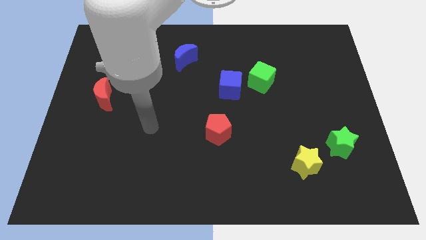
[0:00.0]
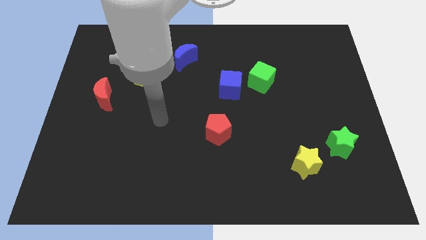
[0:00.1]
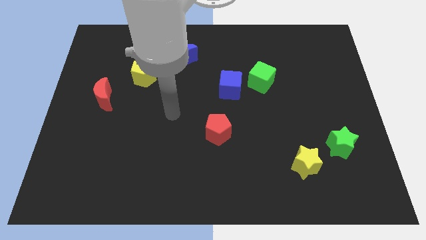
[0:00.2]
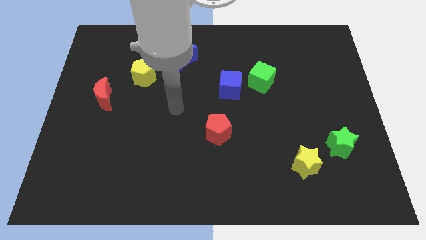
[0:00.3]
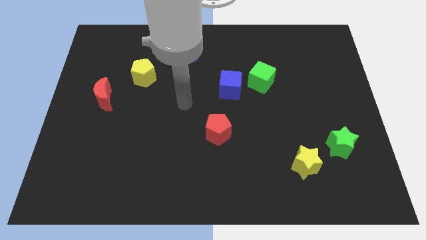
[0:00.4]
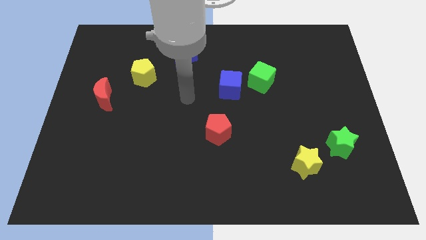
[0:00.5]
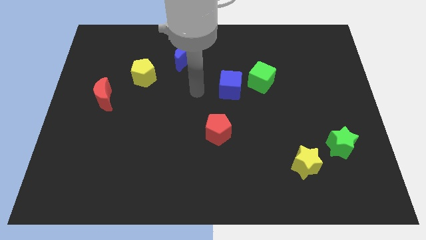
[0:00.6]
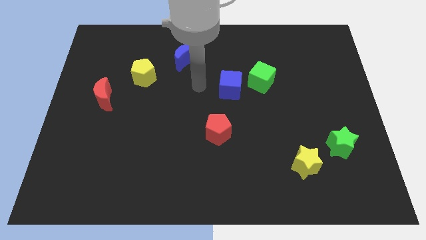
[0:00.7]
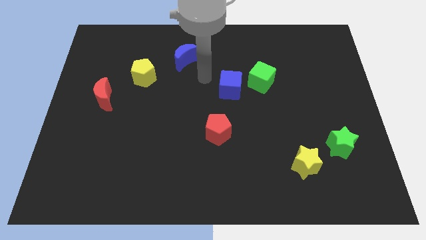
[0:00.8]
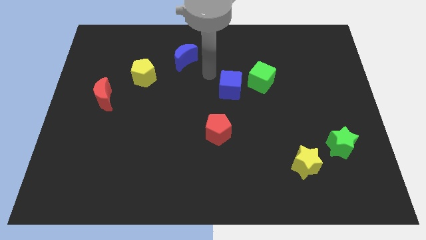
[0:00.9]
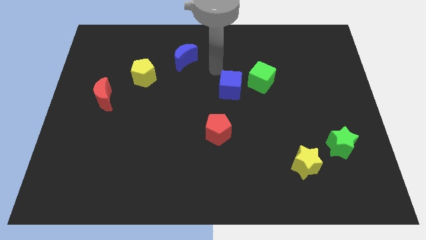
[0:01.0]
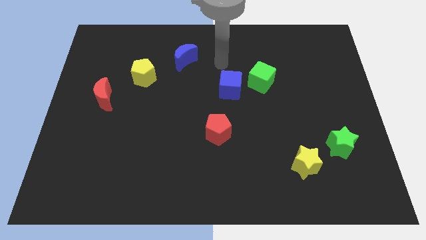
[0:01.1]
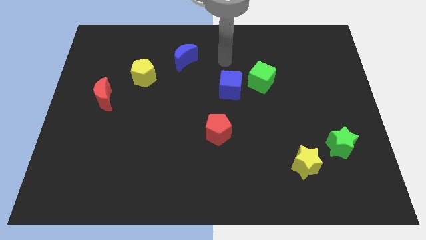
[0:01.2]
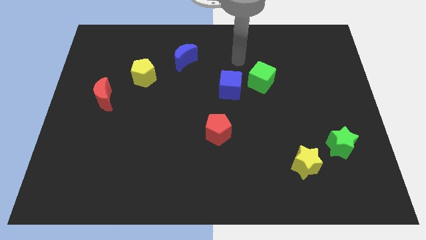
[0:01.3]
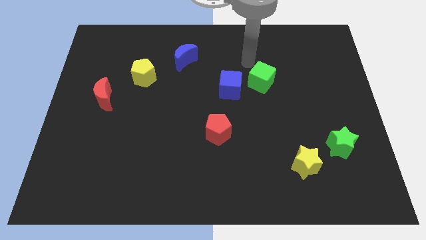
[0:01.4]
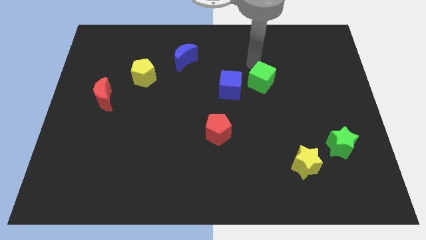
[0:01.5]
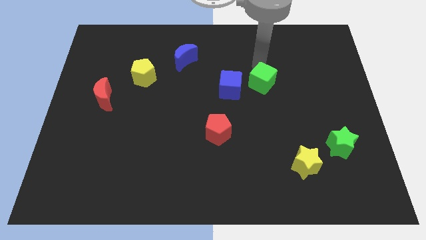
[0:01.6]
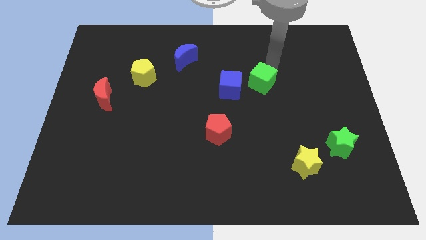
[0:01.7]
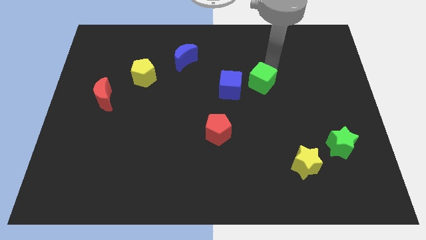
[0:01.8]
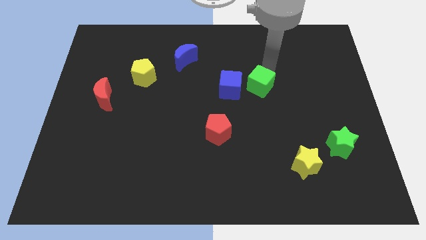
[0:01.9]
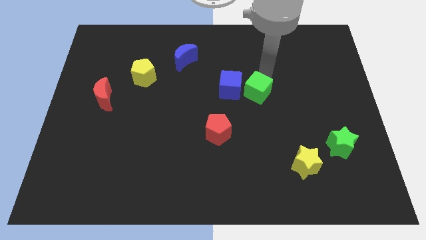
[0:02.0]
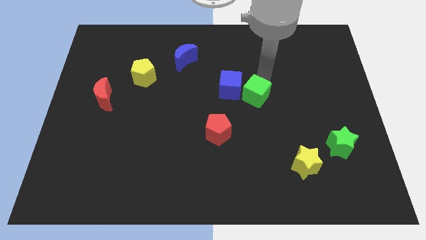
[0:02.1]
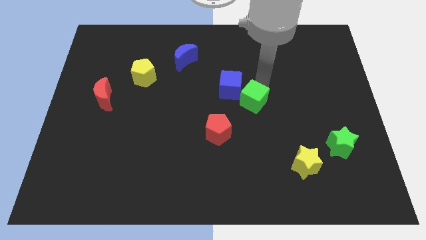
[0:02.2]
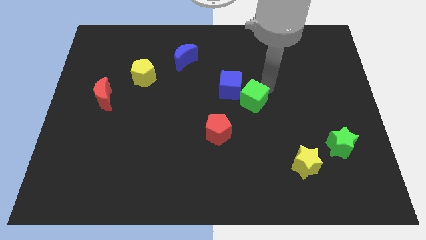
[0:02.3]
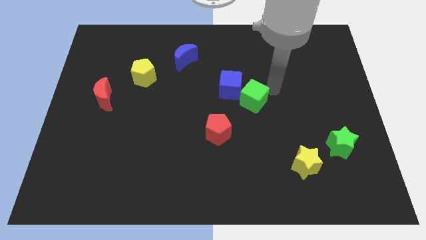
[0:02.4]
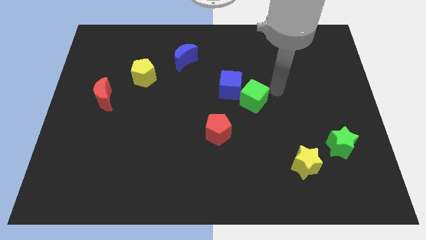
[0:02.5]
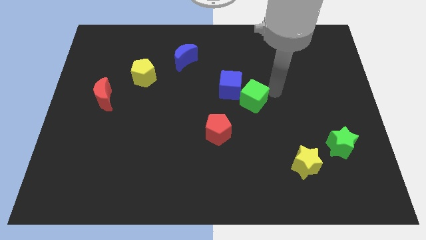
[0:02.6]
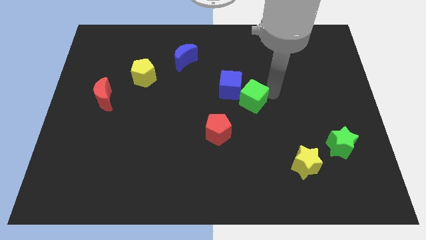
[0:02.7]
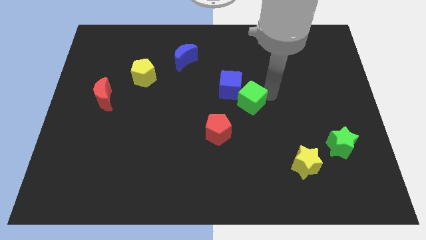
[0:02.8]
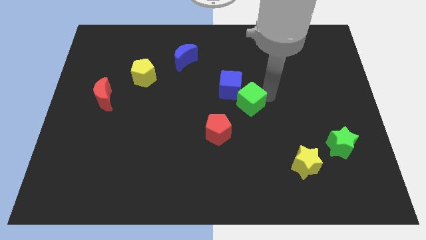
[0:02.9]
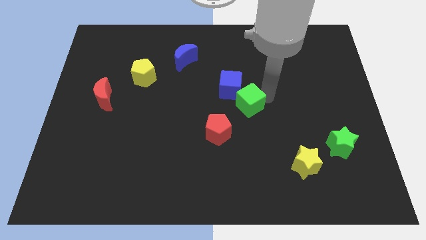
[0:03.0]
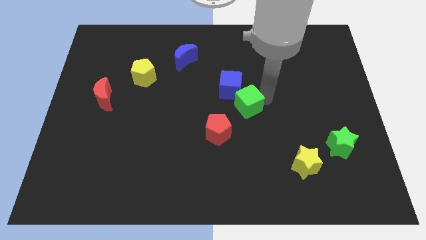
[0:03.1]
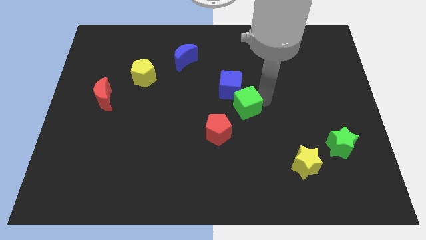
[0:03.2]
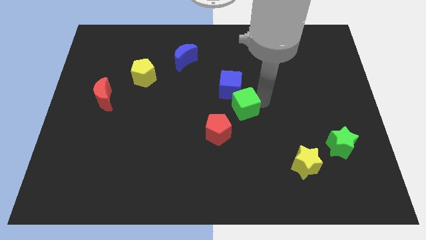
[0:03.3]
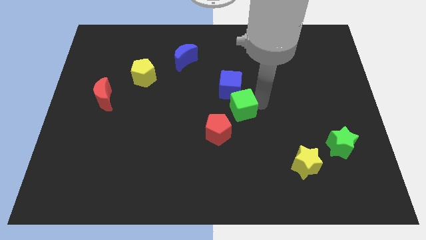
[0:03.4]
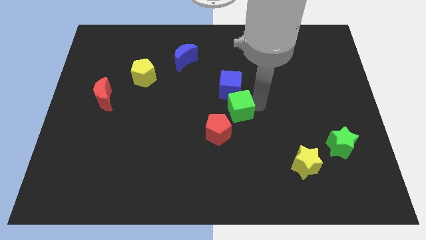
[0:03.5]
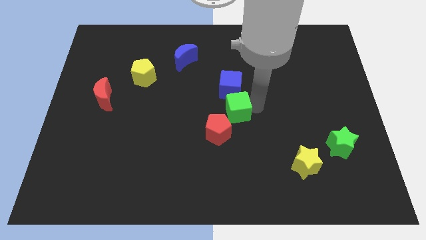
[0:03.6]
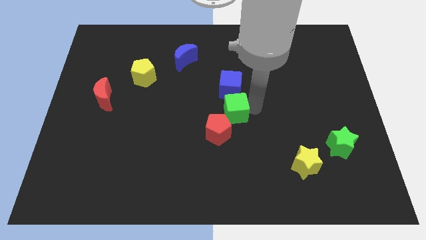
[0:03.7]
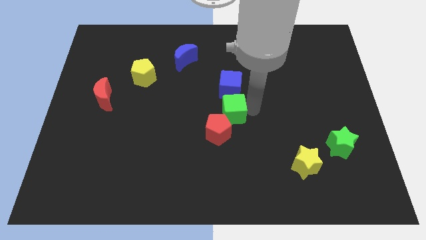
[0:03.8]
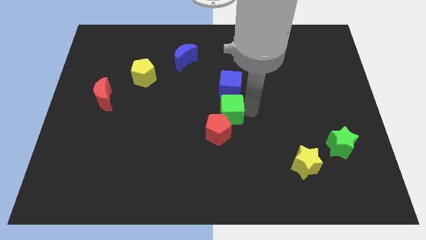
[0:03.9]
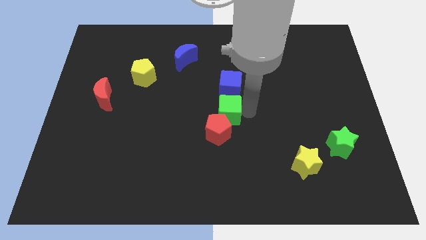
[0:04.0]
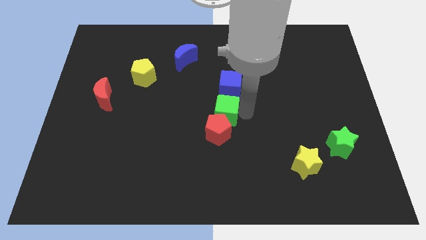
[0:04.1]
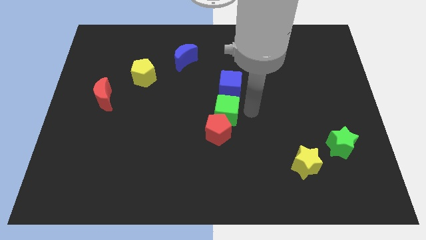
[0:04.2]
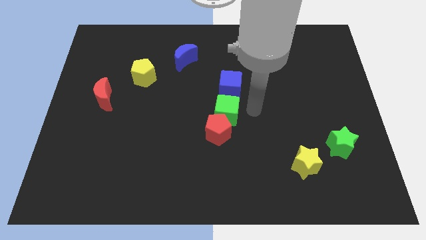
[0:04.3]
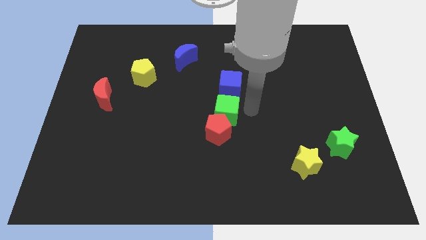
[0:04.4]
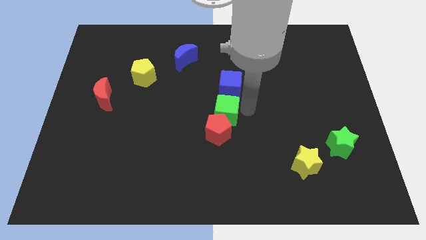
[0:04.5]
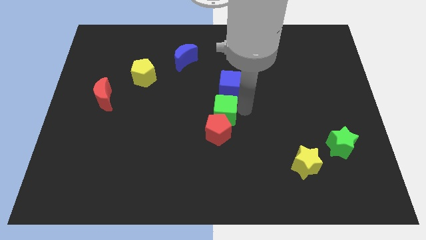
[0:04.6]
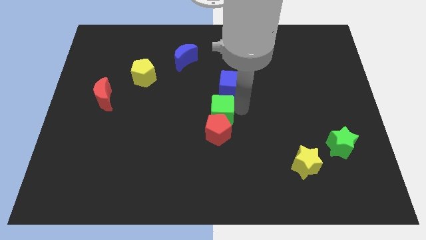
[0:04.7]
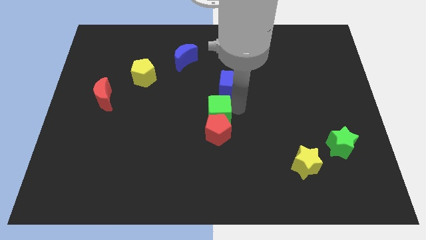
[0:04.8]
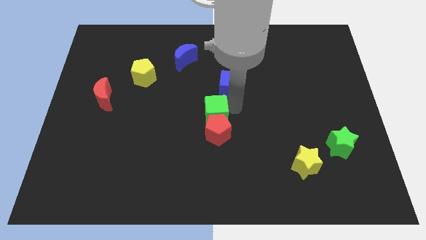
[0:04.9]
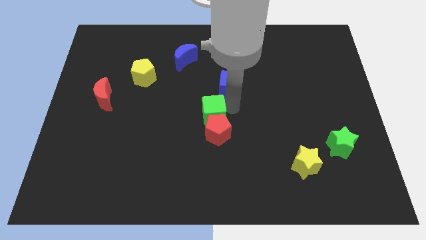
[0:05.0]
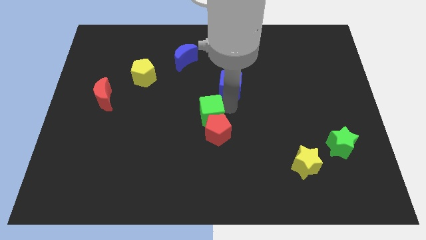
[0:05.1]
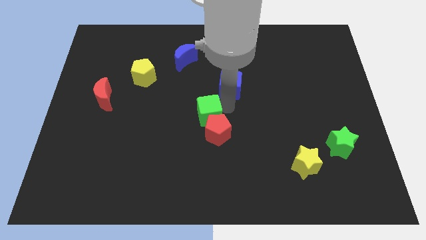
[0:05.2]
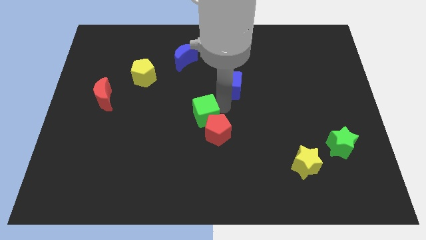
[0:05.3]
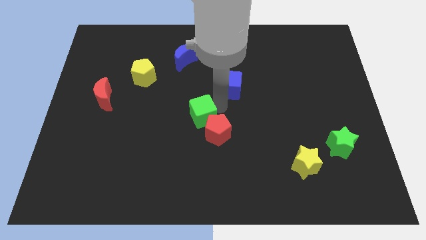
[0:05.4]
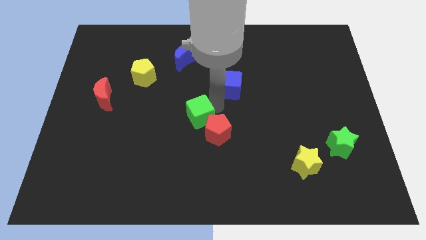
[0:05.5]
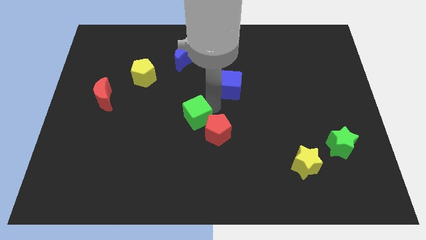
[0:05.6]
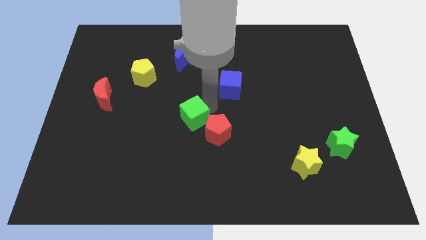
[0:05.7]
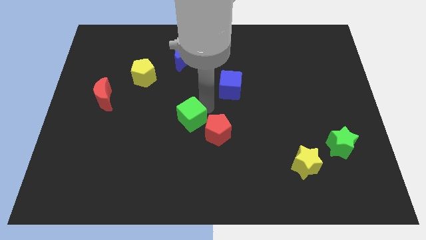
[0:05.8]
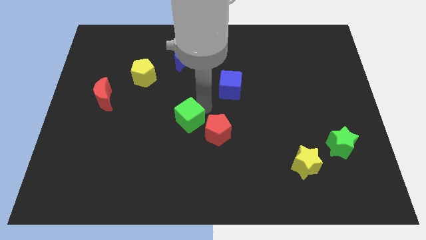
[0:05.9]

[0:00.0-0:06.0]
move the green cube diagonally downwards and left

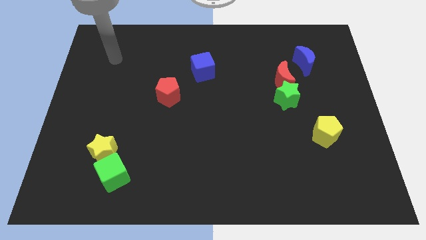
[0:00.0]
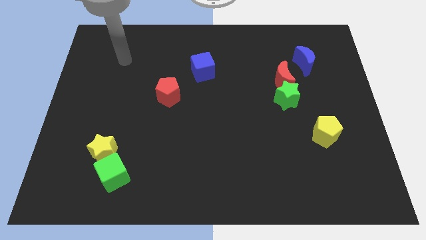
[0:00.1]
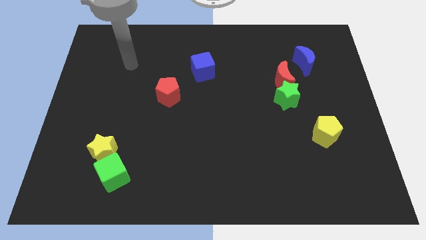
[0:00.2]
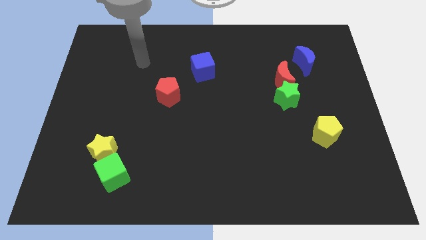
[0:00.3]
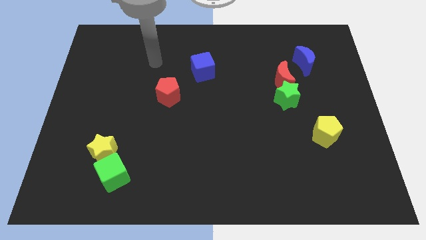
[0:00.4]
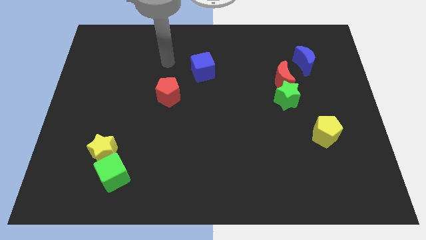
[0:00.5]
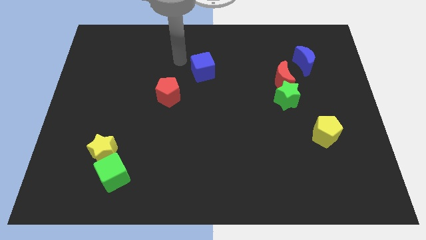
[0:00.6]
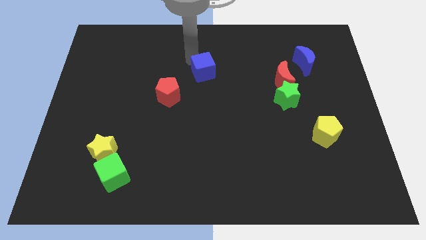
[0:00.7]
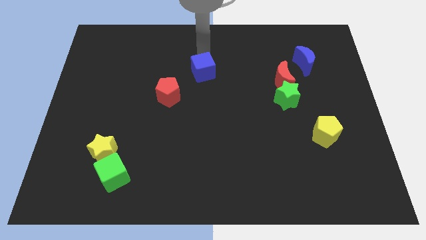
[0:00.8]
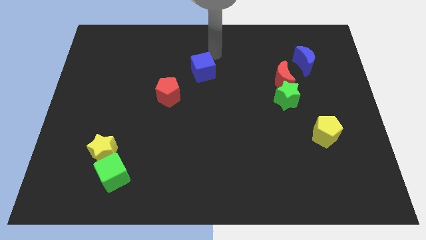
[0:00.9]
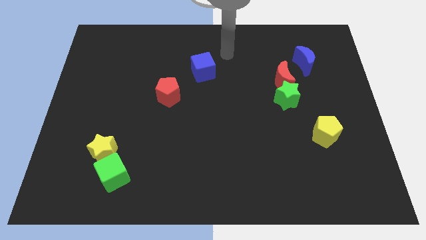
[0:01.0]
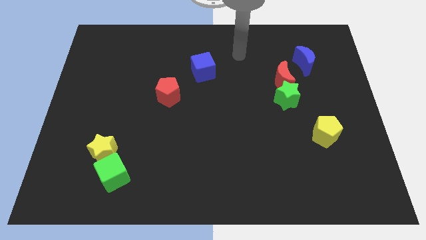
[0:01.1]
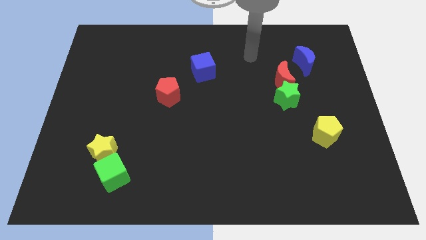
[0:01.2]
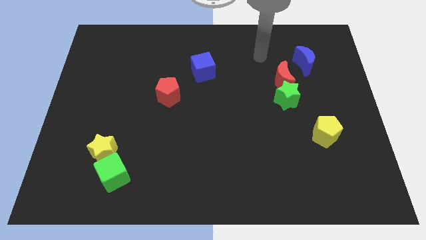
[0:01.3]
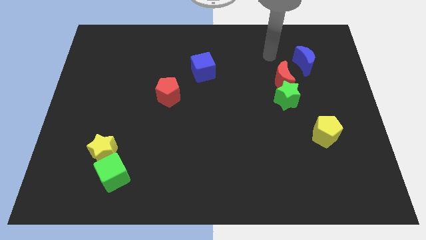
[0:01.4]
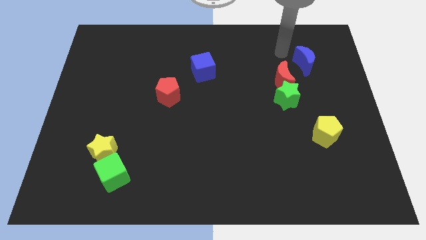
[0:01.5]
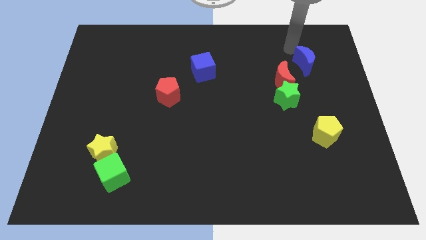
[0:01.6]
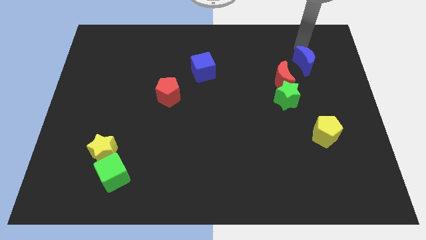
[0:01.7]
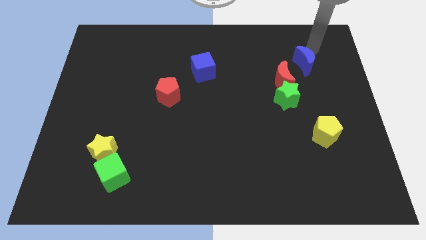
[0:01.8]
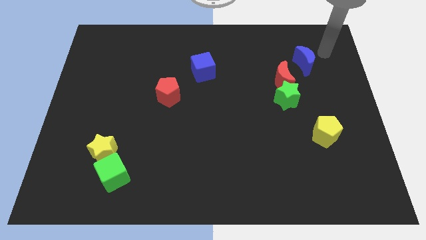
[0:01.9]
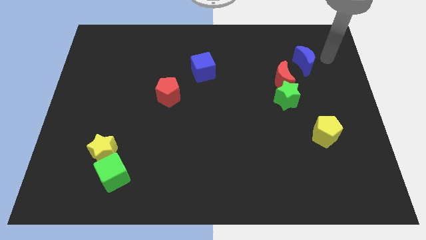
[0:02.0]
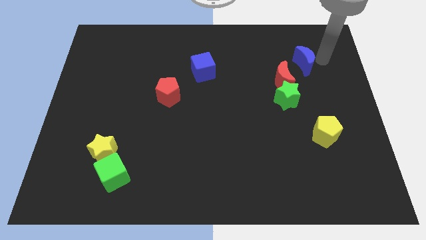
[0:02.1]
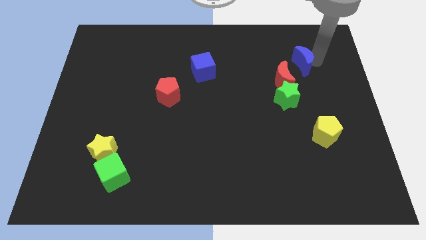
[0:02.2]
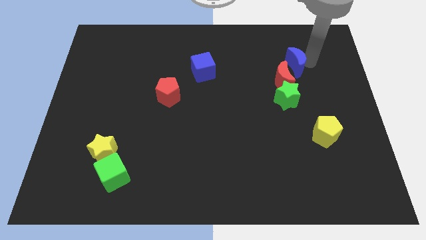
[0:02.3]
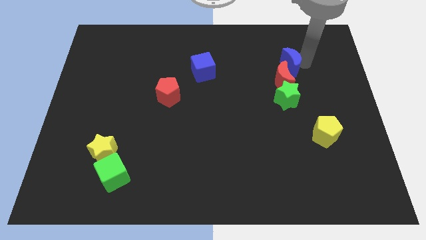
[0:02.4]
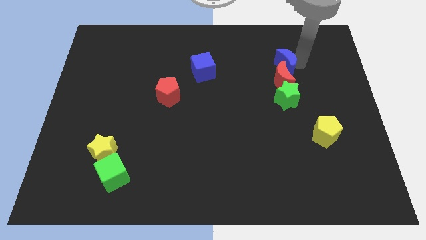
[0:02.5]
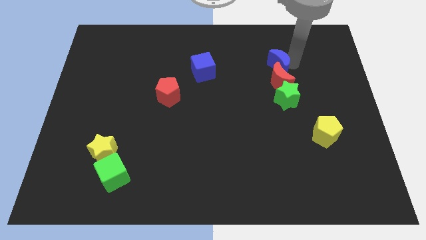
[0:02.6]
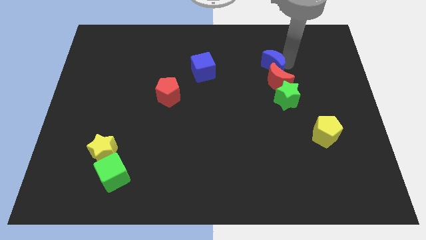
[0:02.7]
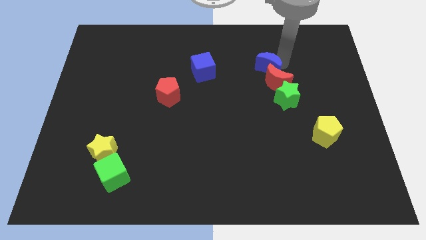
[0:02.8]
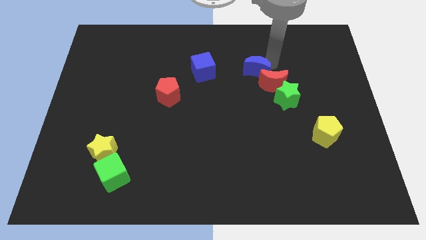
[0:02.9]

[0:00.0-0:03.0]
slightly slide the blue moon downwards and to the left
